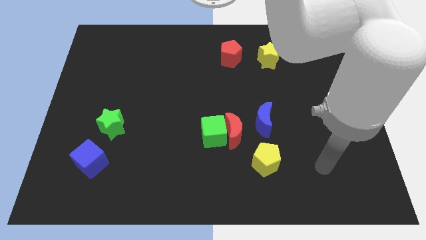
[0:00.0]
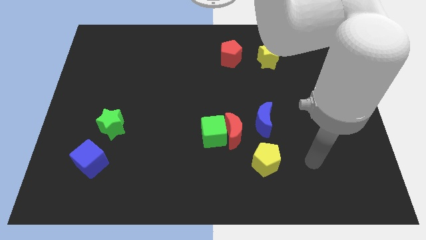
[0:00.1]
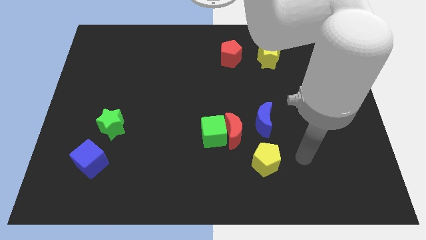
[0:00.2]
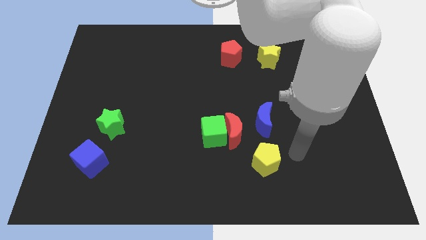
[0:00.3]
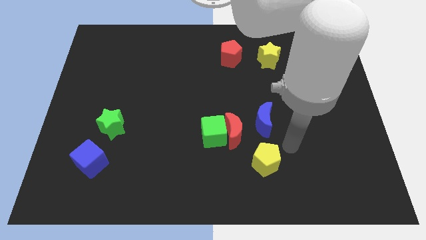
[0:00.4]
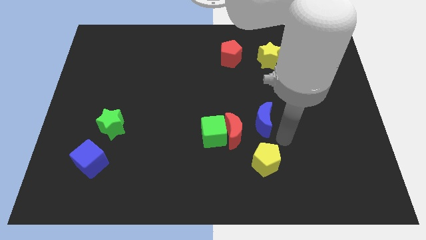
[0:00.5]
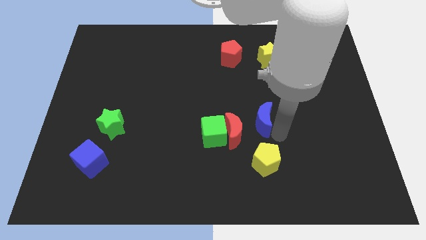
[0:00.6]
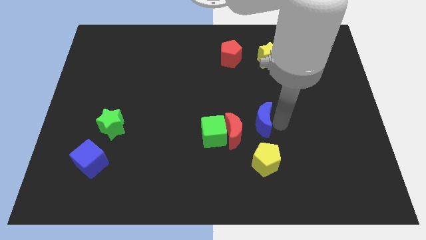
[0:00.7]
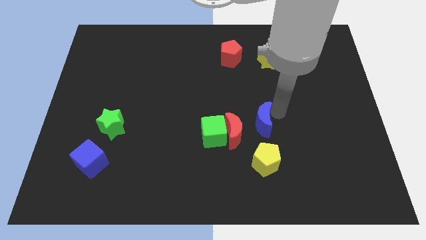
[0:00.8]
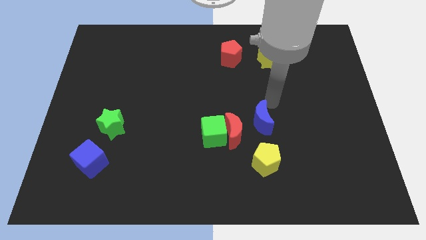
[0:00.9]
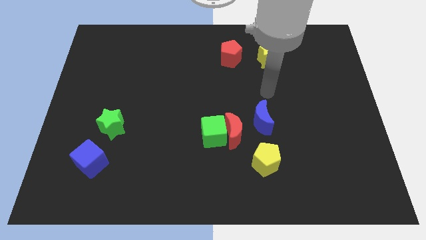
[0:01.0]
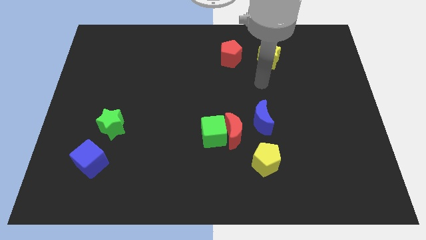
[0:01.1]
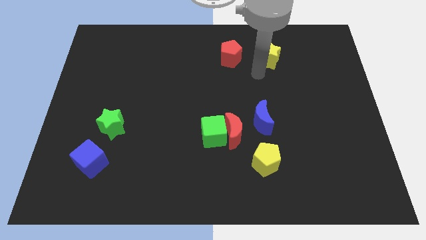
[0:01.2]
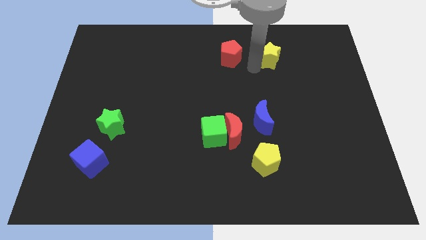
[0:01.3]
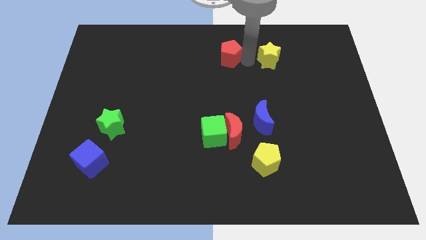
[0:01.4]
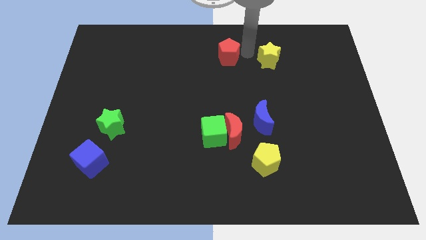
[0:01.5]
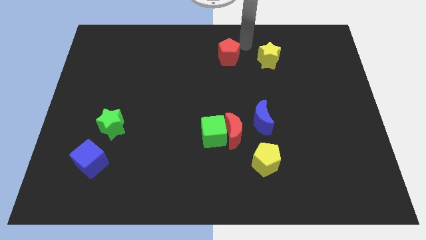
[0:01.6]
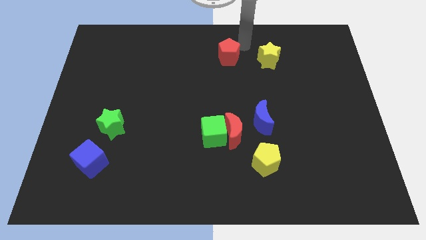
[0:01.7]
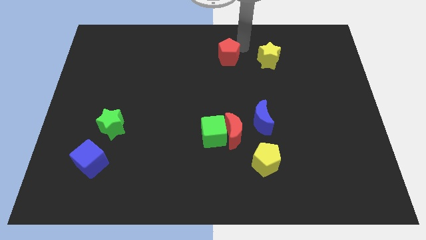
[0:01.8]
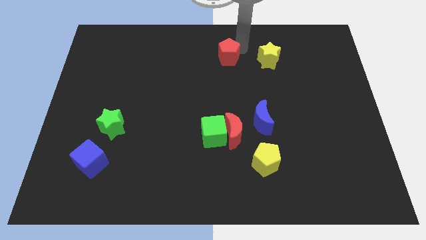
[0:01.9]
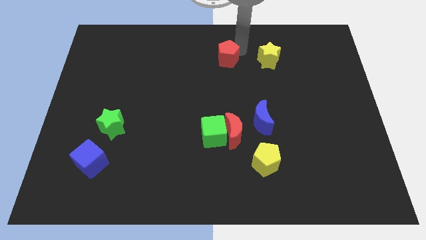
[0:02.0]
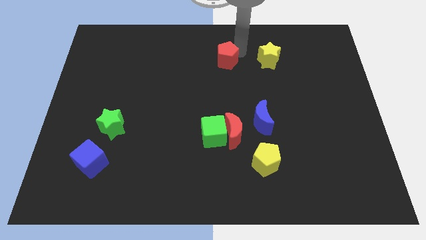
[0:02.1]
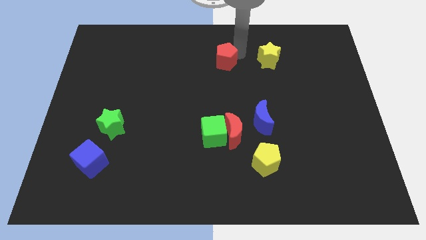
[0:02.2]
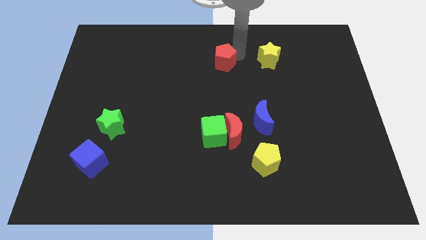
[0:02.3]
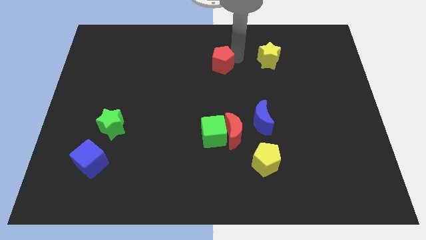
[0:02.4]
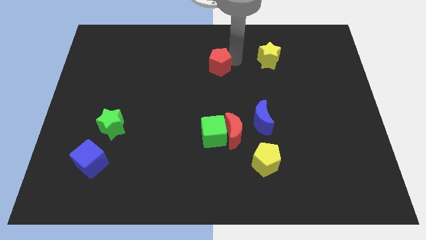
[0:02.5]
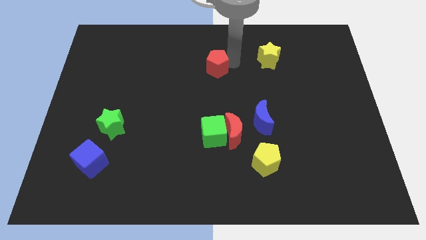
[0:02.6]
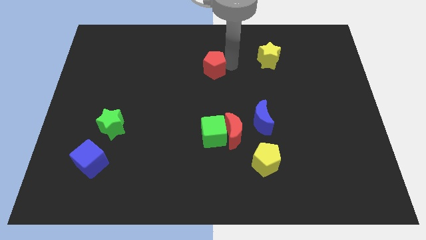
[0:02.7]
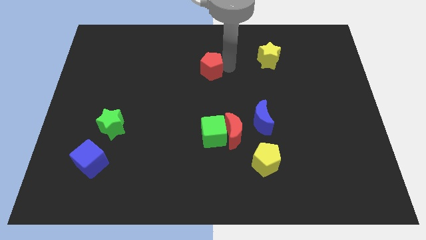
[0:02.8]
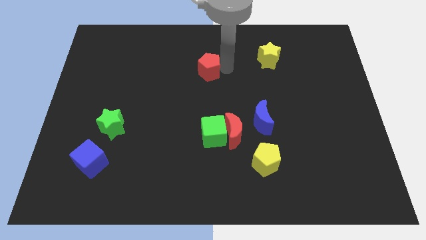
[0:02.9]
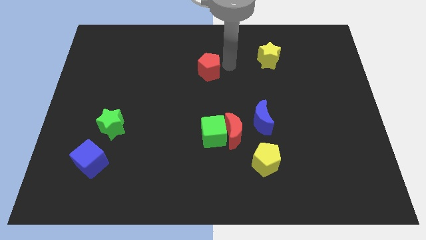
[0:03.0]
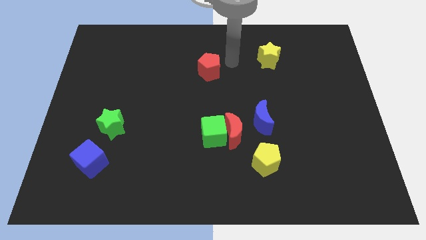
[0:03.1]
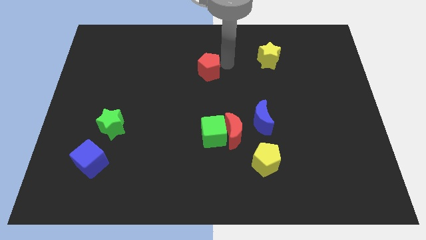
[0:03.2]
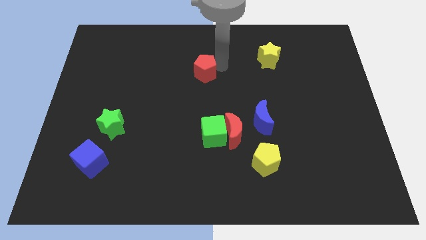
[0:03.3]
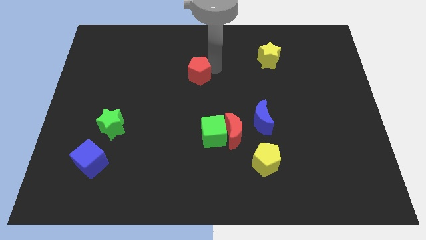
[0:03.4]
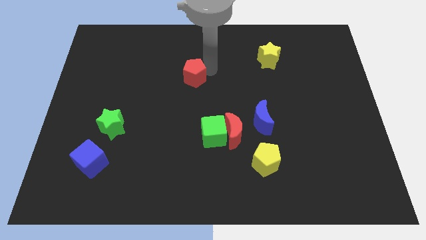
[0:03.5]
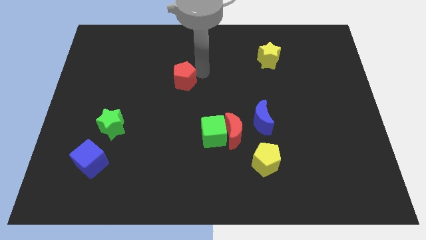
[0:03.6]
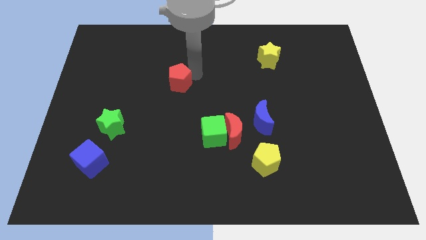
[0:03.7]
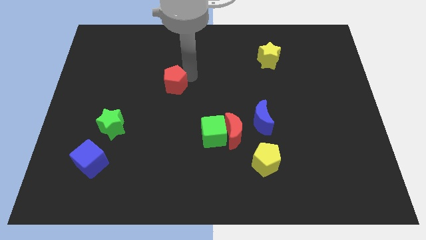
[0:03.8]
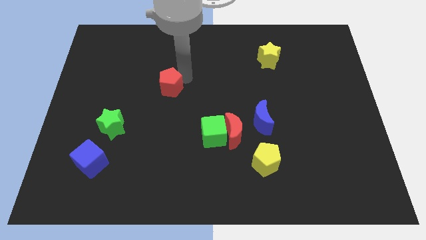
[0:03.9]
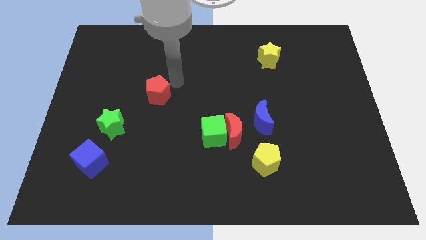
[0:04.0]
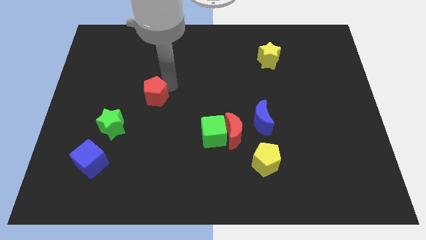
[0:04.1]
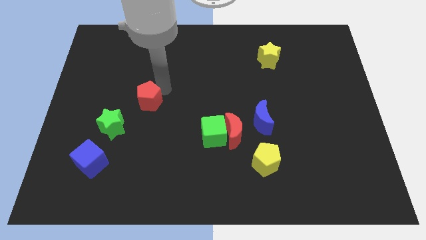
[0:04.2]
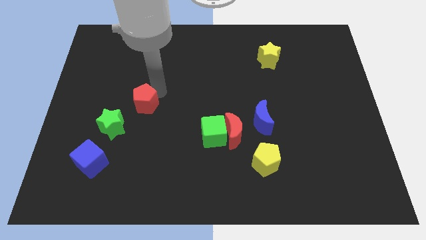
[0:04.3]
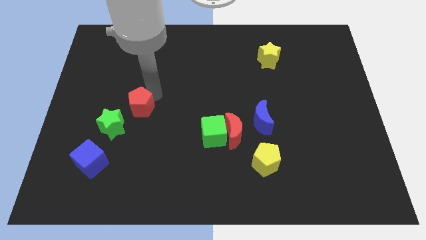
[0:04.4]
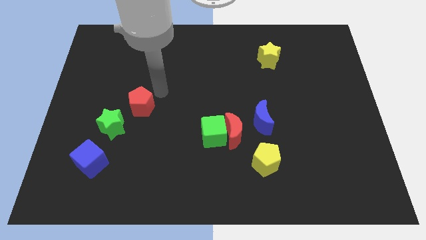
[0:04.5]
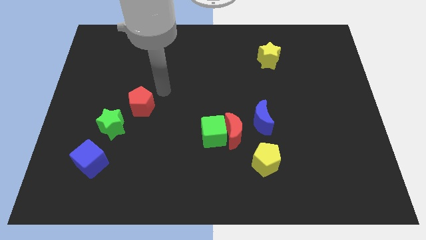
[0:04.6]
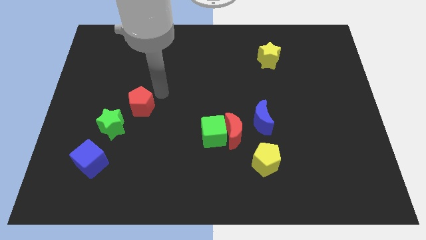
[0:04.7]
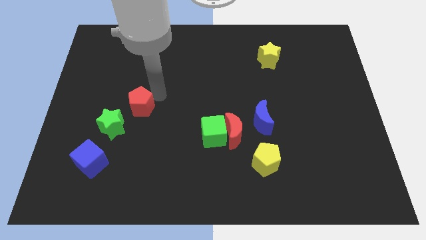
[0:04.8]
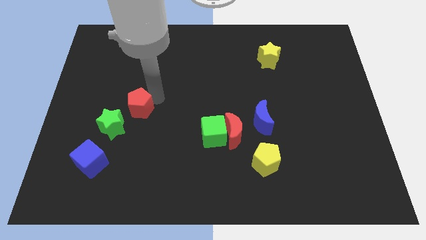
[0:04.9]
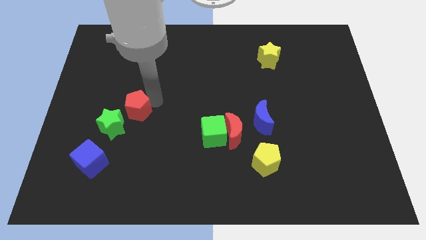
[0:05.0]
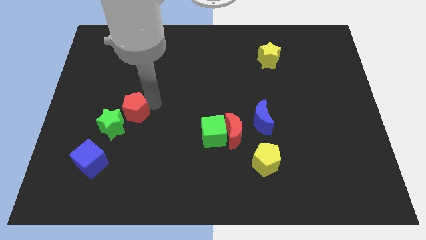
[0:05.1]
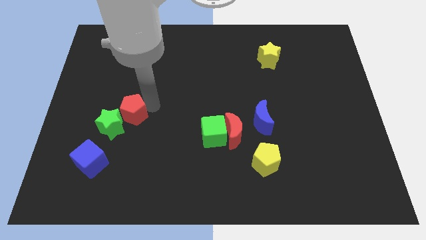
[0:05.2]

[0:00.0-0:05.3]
push the red pentagon towards the green star

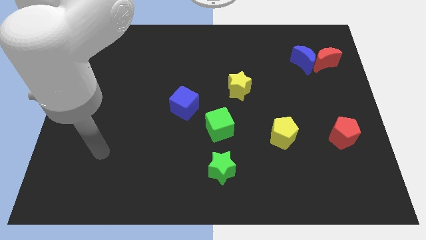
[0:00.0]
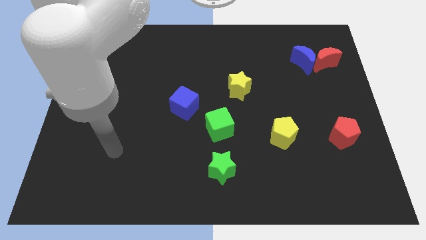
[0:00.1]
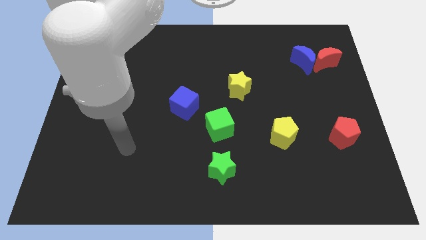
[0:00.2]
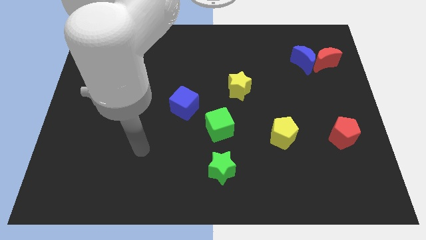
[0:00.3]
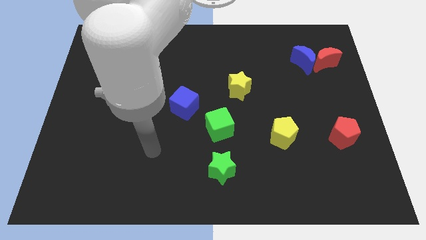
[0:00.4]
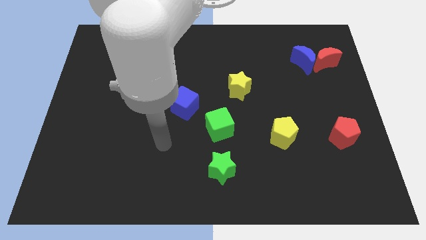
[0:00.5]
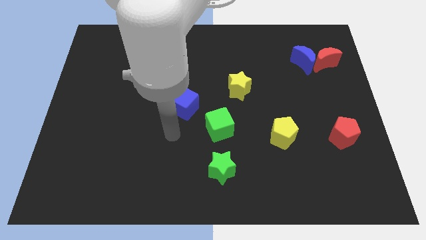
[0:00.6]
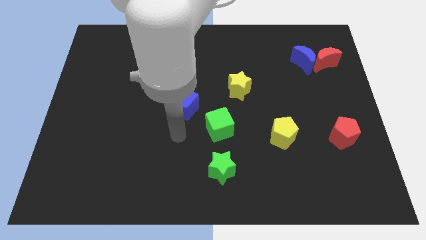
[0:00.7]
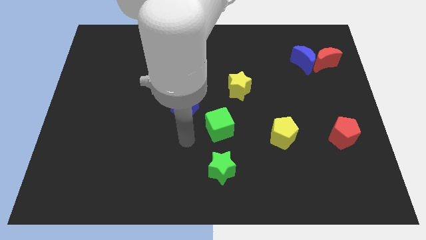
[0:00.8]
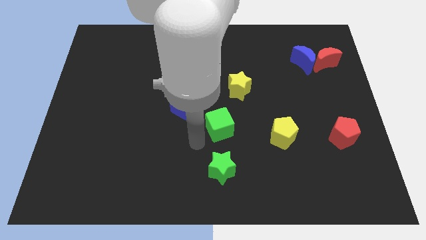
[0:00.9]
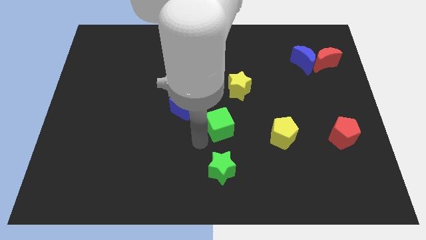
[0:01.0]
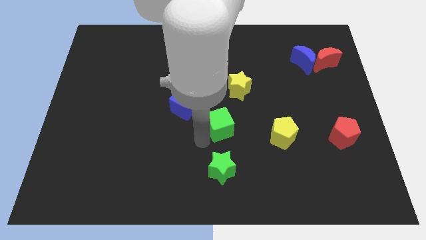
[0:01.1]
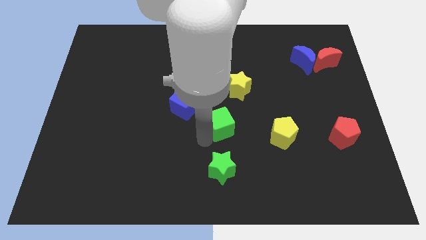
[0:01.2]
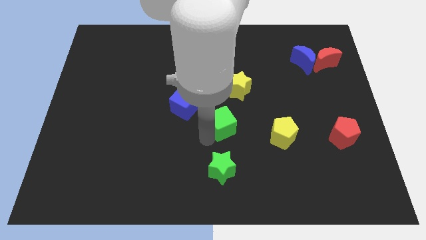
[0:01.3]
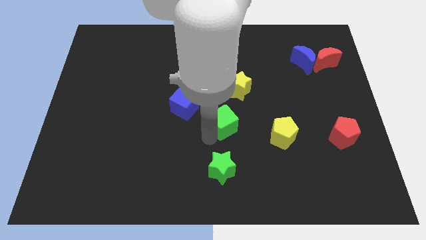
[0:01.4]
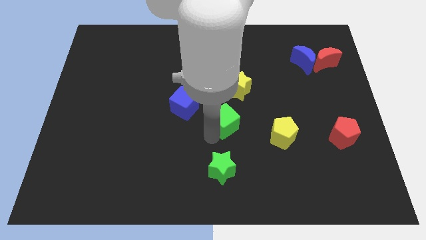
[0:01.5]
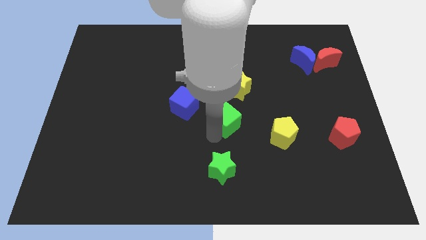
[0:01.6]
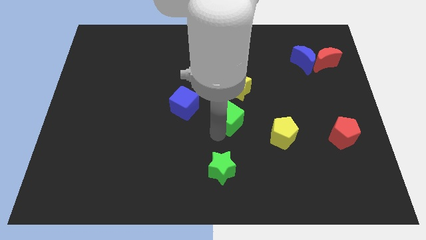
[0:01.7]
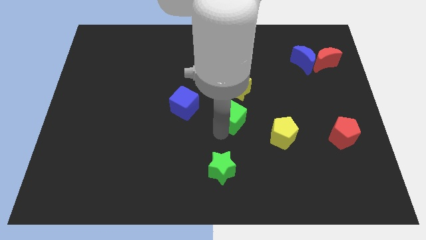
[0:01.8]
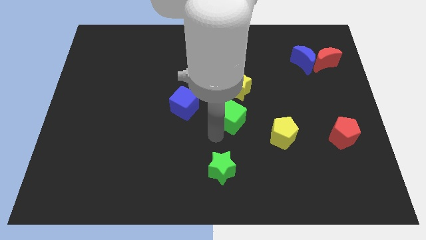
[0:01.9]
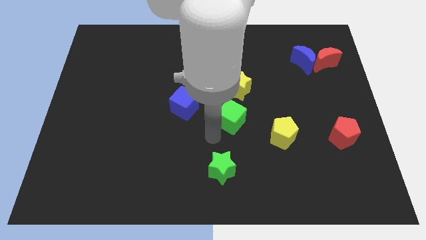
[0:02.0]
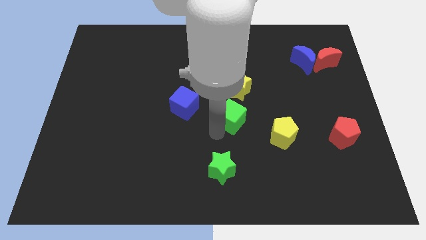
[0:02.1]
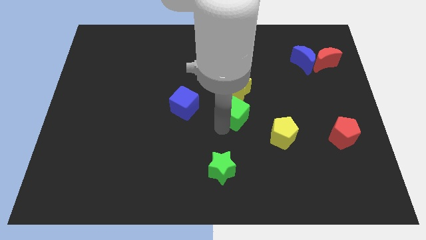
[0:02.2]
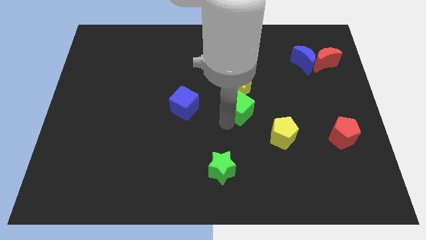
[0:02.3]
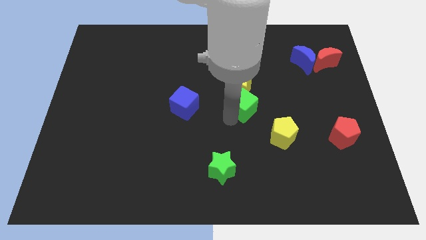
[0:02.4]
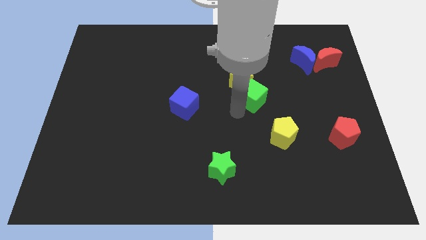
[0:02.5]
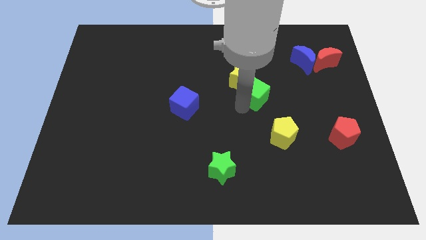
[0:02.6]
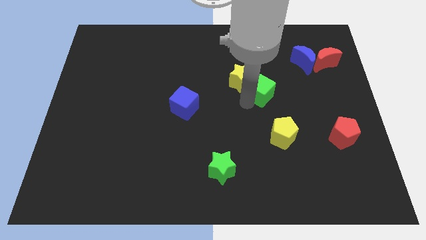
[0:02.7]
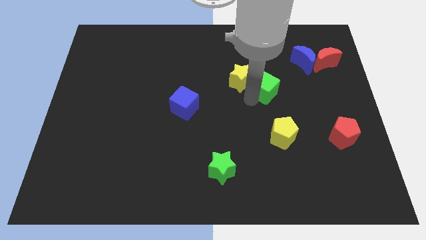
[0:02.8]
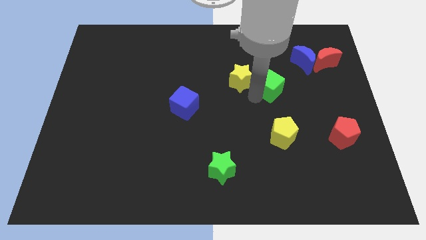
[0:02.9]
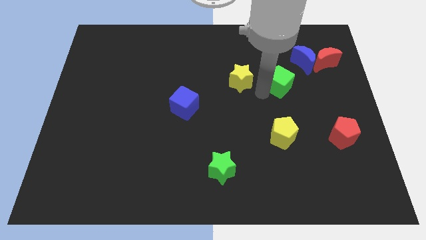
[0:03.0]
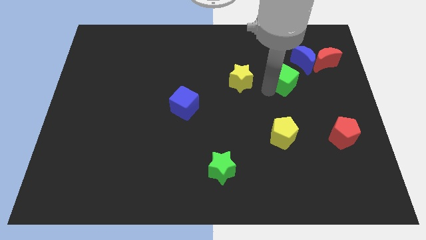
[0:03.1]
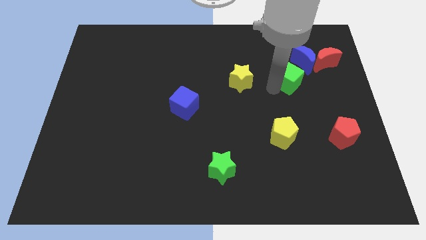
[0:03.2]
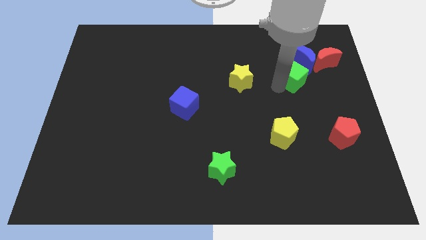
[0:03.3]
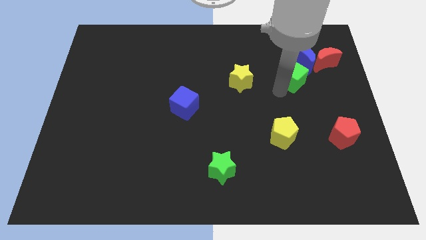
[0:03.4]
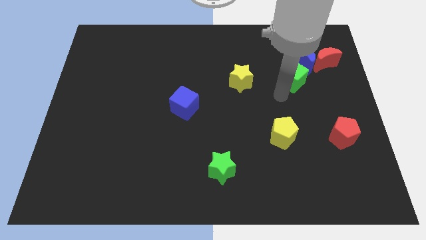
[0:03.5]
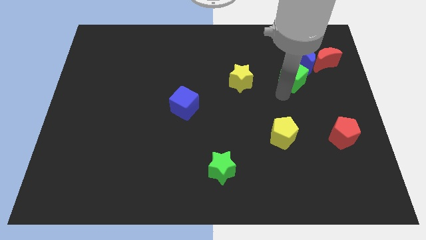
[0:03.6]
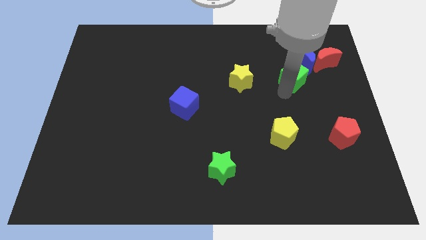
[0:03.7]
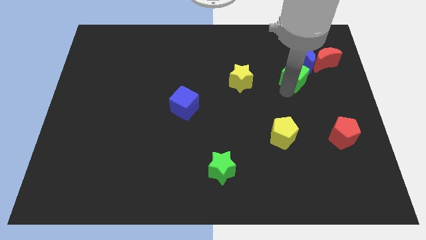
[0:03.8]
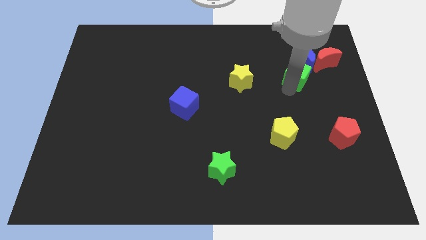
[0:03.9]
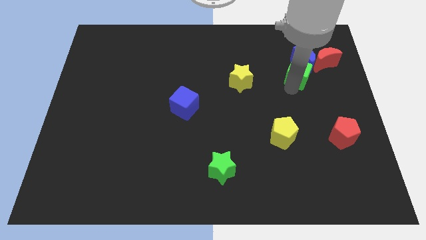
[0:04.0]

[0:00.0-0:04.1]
push the green cube next to the blue moon
